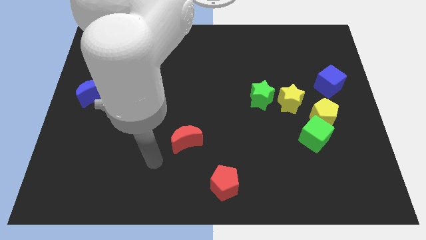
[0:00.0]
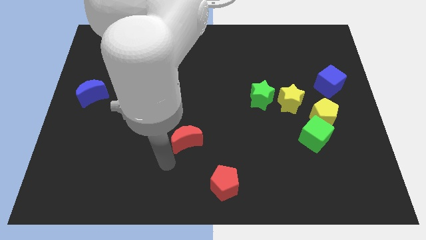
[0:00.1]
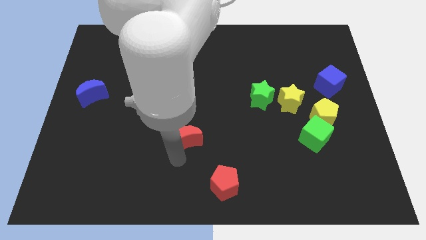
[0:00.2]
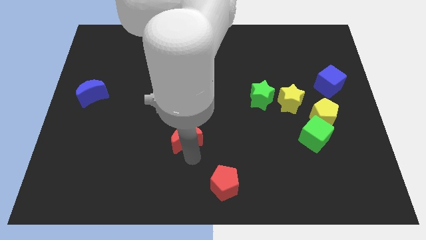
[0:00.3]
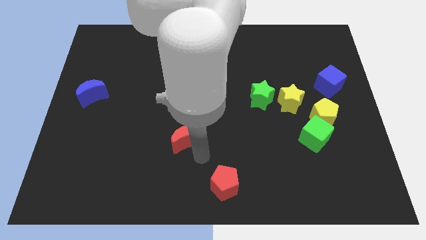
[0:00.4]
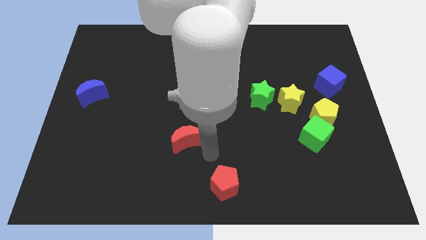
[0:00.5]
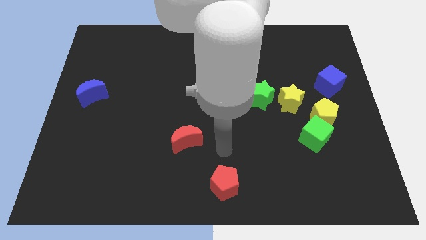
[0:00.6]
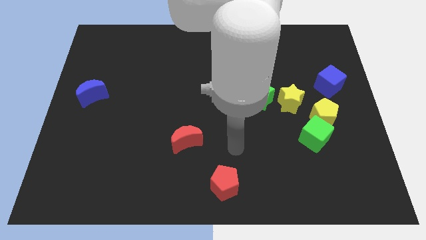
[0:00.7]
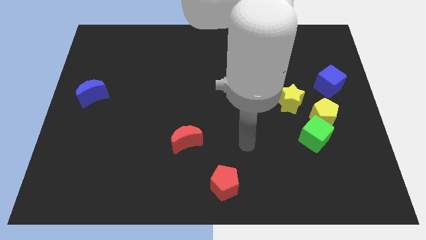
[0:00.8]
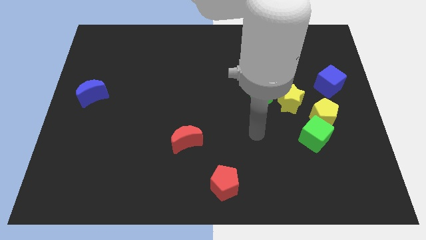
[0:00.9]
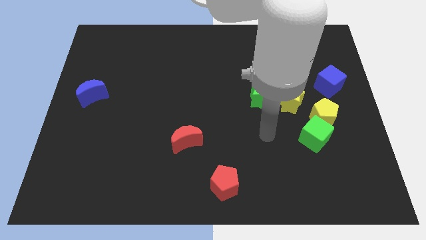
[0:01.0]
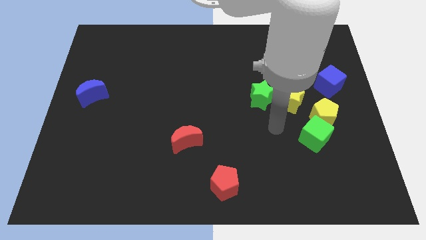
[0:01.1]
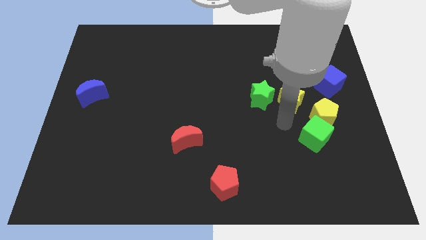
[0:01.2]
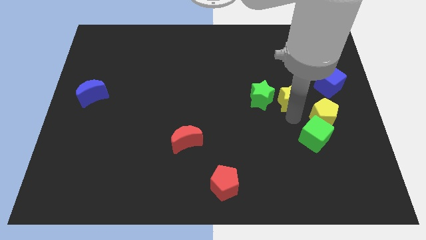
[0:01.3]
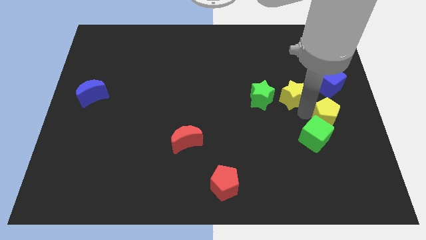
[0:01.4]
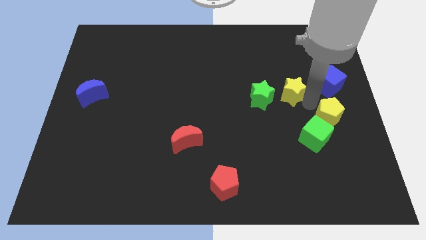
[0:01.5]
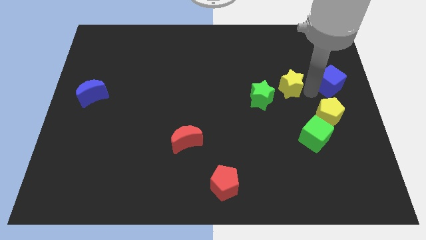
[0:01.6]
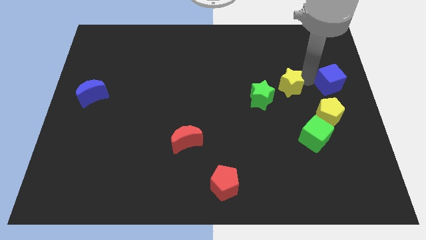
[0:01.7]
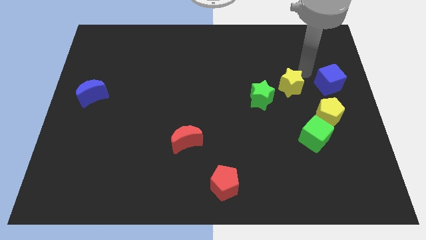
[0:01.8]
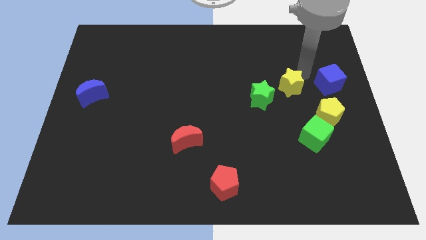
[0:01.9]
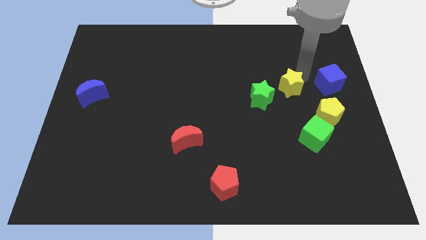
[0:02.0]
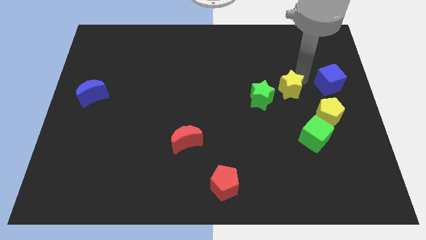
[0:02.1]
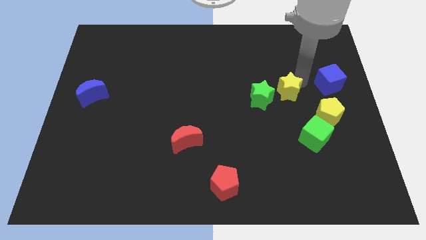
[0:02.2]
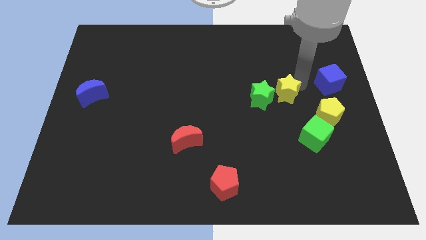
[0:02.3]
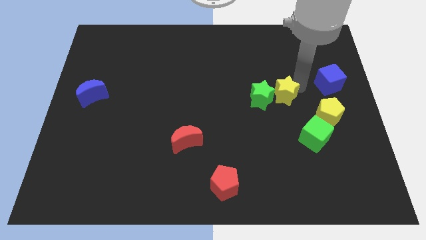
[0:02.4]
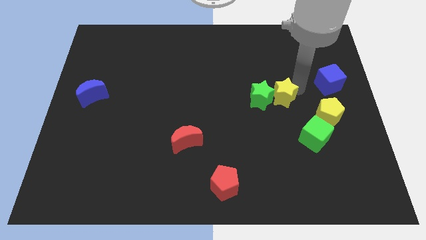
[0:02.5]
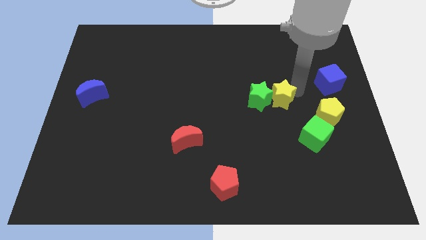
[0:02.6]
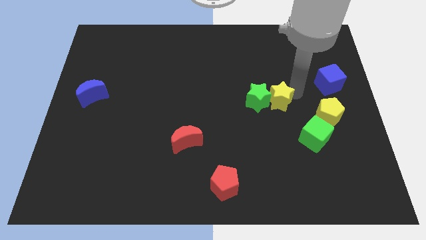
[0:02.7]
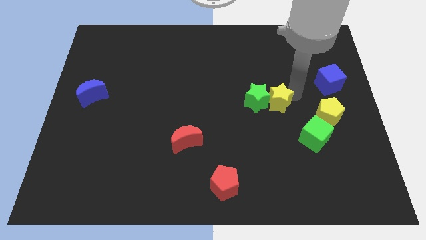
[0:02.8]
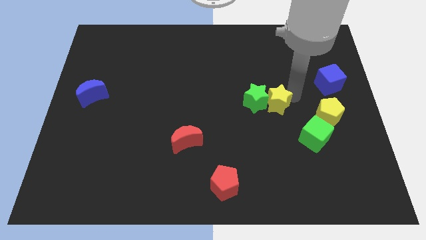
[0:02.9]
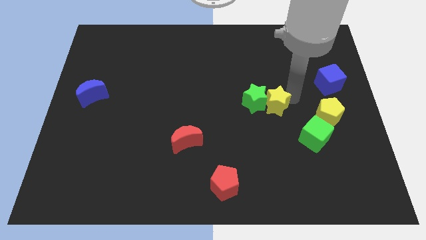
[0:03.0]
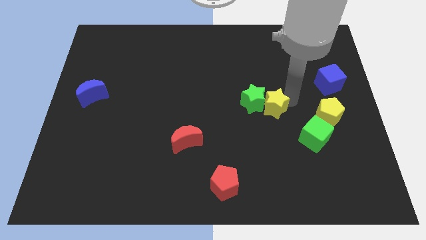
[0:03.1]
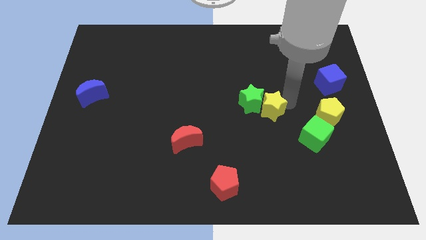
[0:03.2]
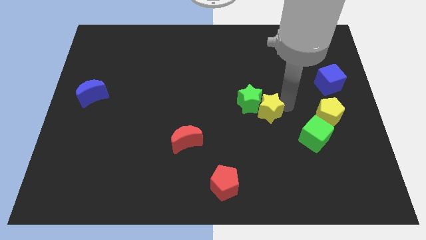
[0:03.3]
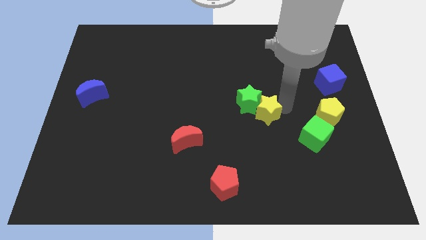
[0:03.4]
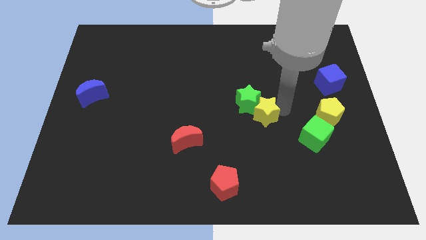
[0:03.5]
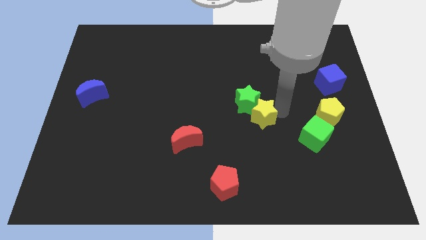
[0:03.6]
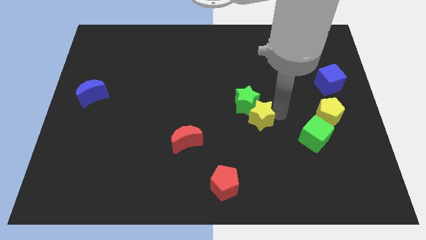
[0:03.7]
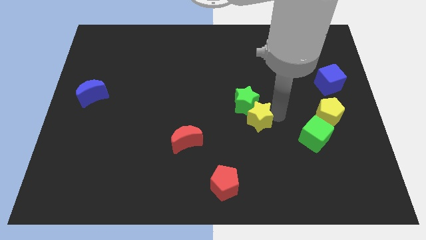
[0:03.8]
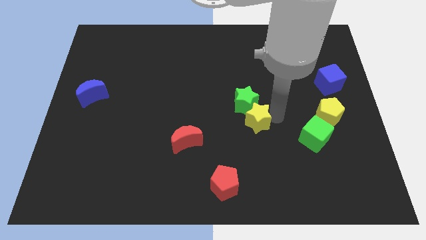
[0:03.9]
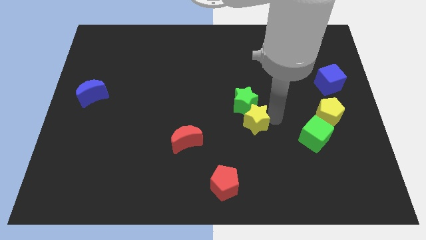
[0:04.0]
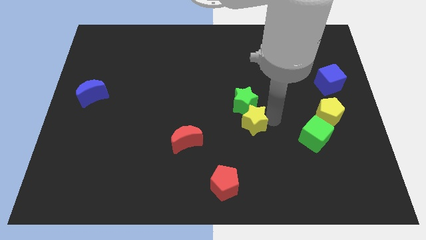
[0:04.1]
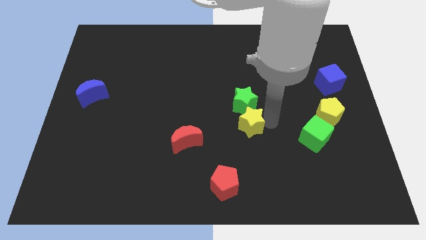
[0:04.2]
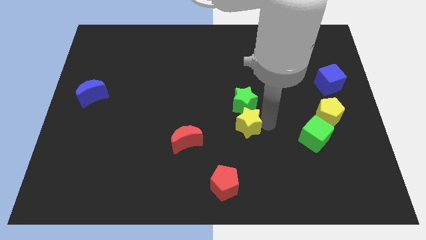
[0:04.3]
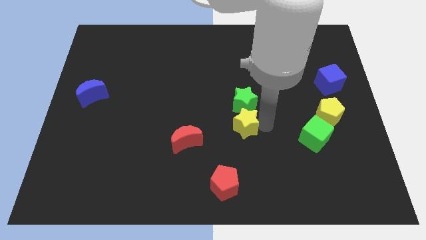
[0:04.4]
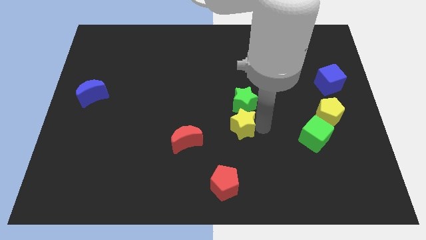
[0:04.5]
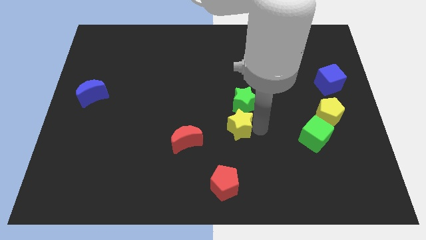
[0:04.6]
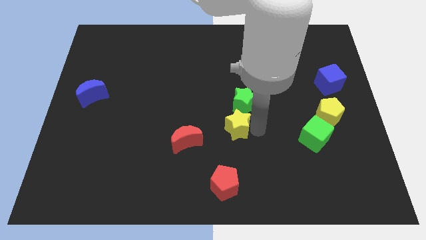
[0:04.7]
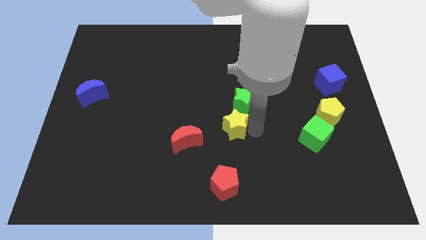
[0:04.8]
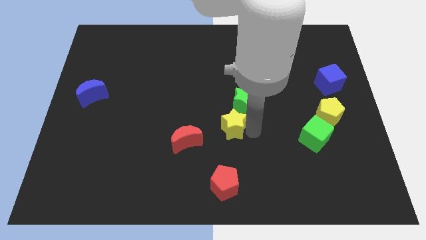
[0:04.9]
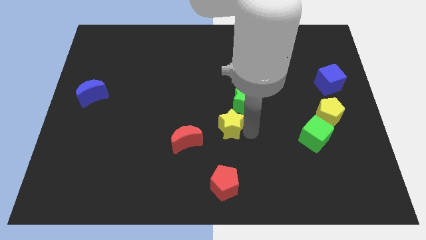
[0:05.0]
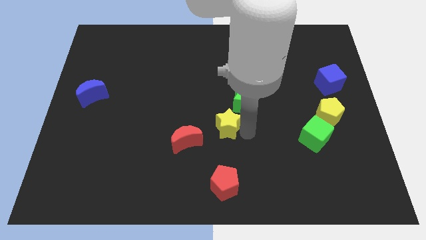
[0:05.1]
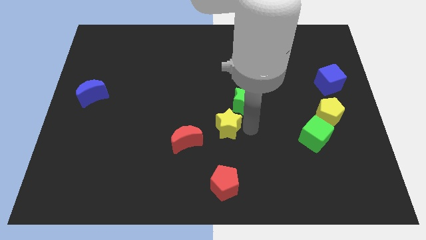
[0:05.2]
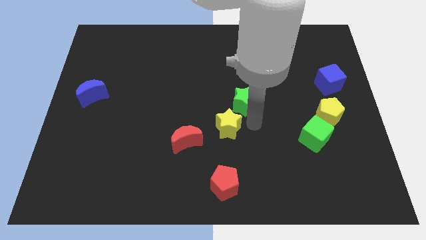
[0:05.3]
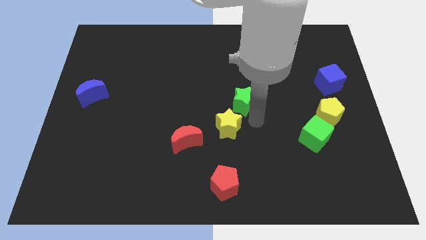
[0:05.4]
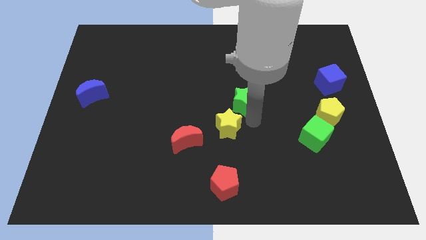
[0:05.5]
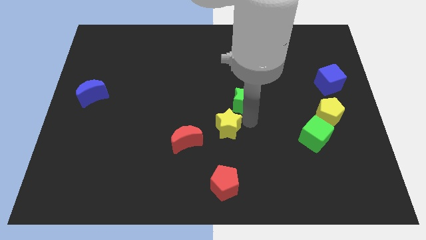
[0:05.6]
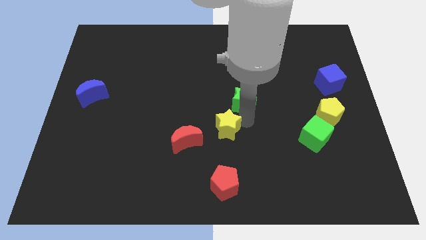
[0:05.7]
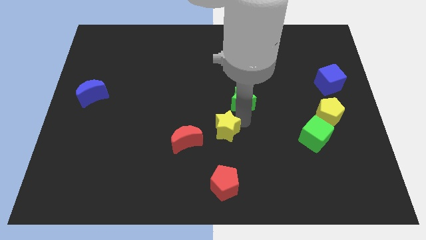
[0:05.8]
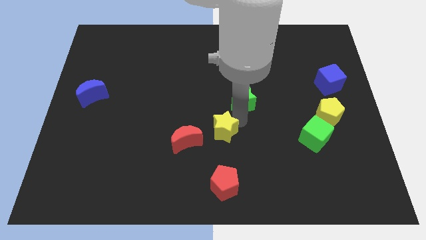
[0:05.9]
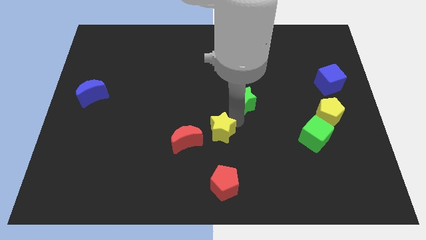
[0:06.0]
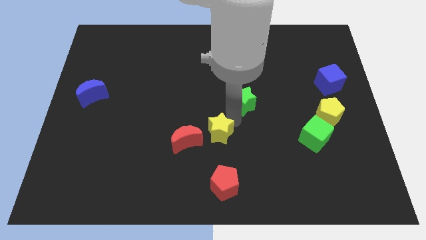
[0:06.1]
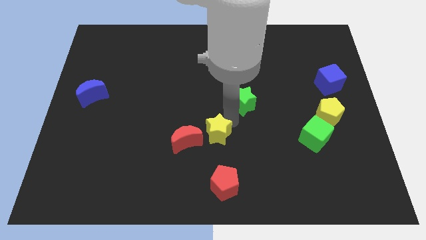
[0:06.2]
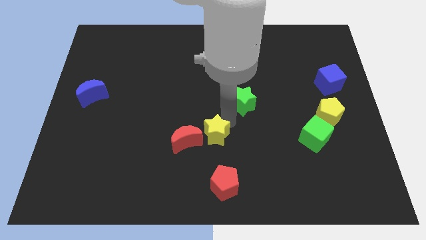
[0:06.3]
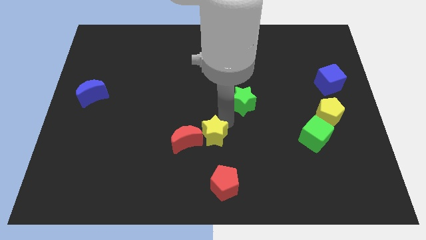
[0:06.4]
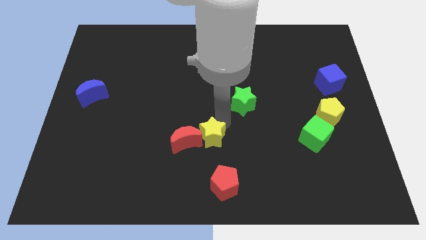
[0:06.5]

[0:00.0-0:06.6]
put the yellow star close to the red moon

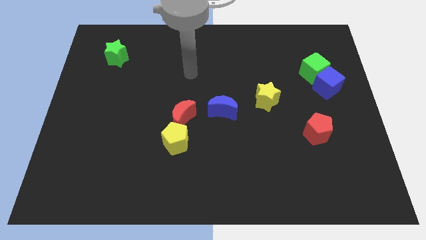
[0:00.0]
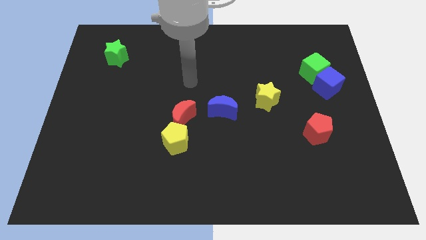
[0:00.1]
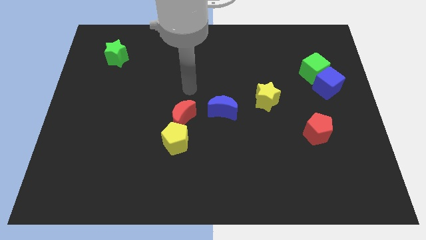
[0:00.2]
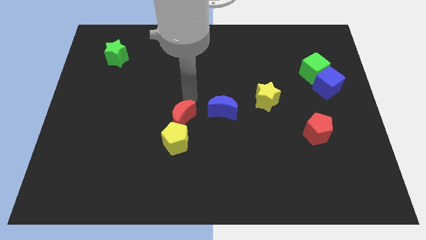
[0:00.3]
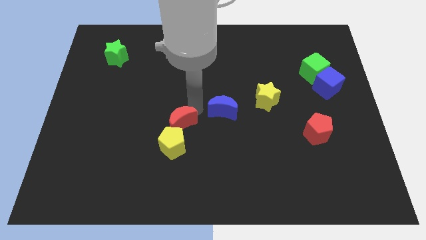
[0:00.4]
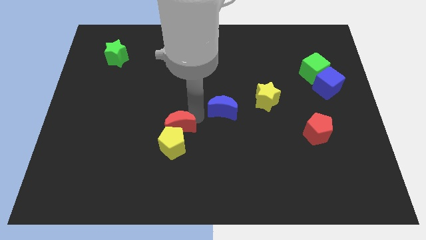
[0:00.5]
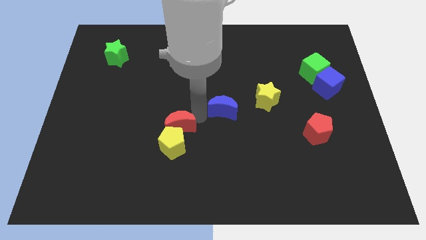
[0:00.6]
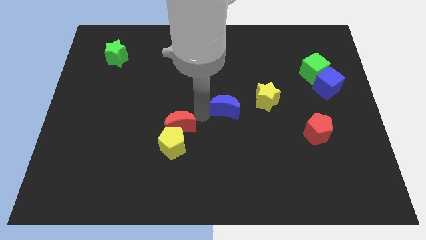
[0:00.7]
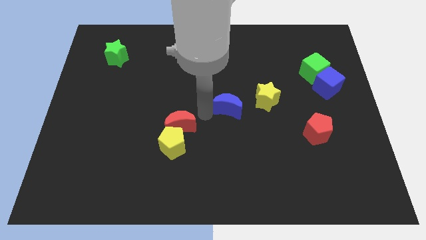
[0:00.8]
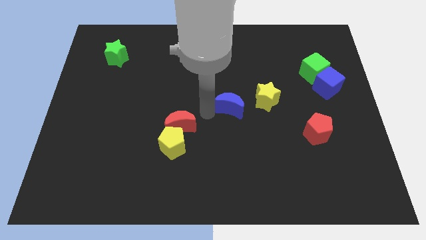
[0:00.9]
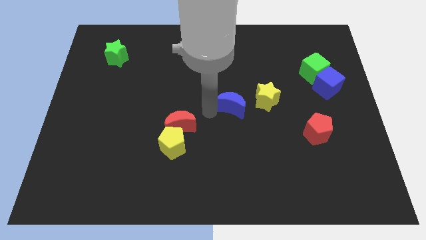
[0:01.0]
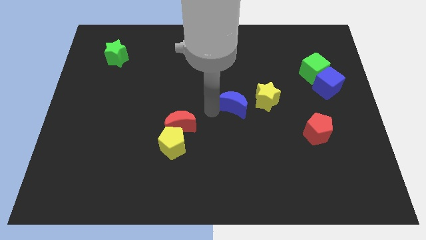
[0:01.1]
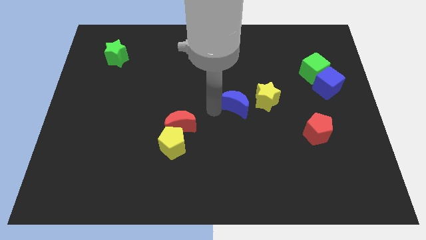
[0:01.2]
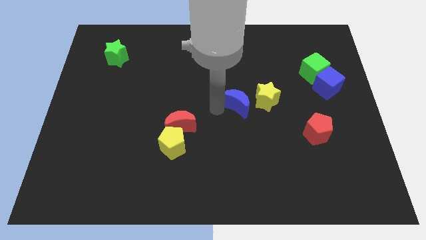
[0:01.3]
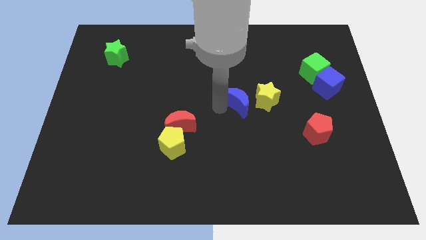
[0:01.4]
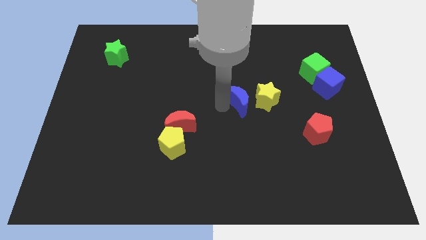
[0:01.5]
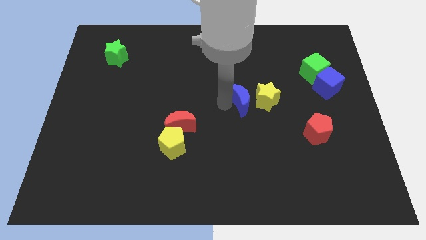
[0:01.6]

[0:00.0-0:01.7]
put the blue moon close to the yellow star

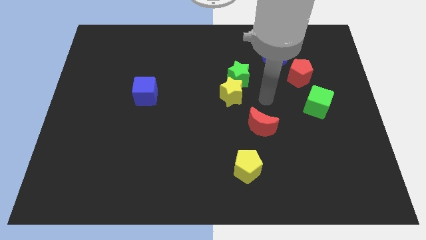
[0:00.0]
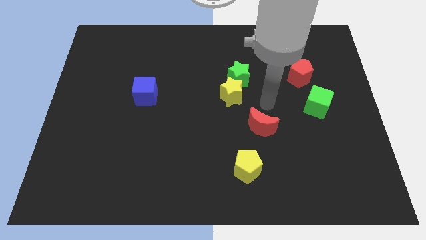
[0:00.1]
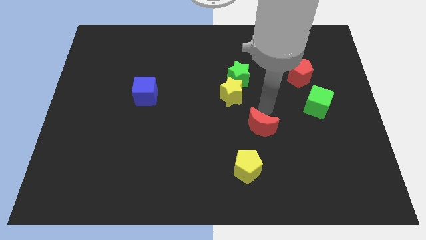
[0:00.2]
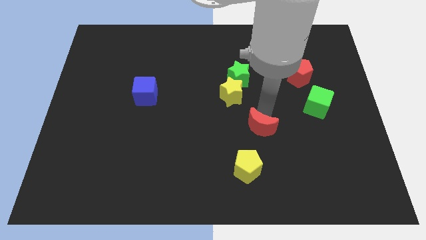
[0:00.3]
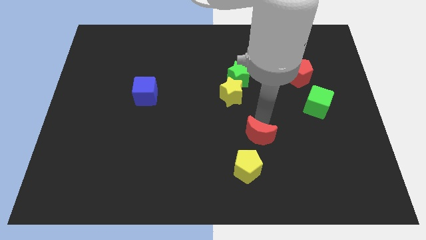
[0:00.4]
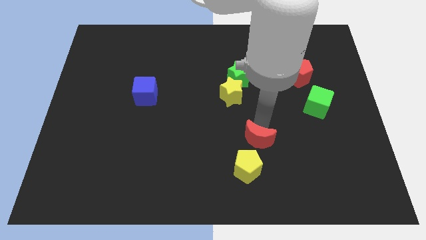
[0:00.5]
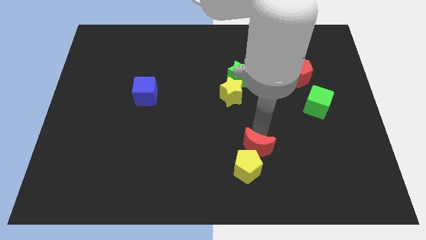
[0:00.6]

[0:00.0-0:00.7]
move the red moon towards the yellow pentagon
